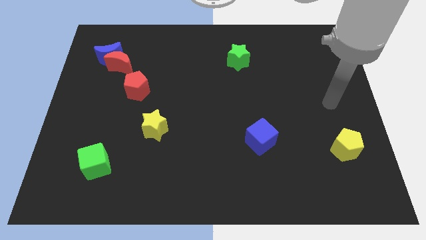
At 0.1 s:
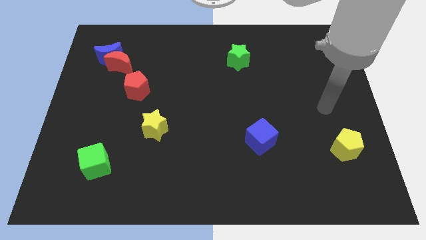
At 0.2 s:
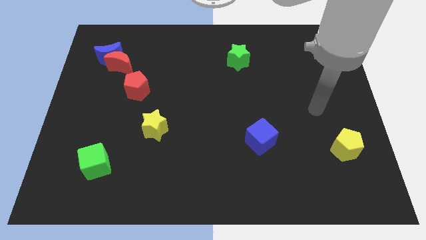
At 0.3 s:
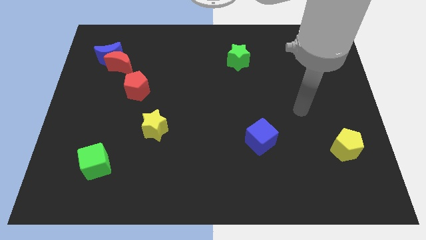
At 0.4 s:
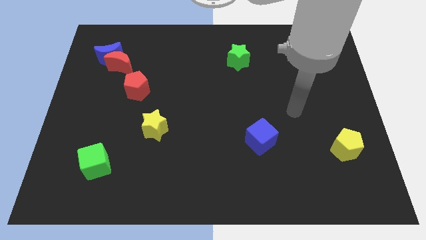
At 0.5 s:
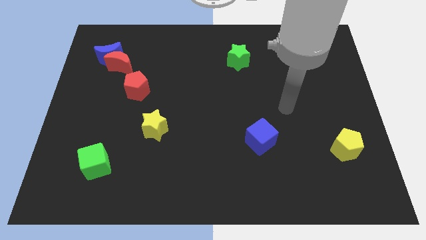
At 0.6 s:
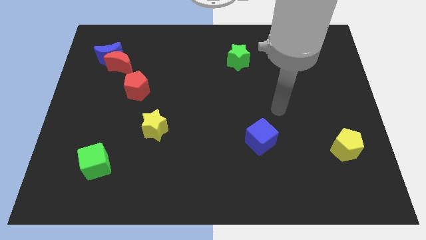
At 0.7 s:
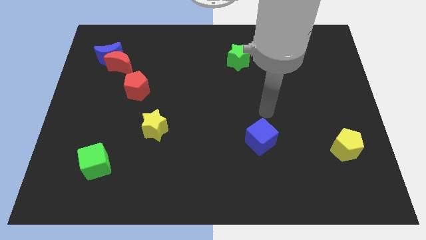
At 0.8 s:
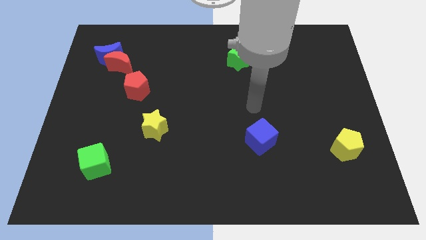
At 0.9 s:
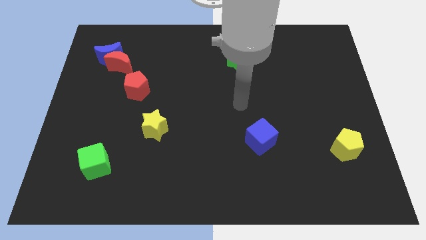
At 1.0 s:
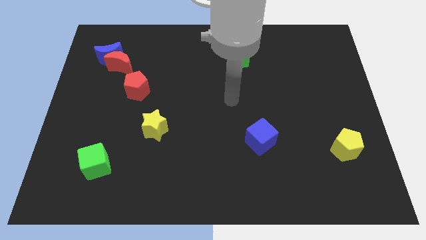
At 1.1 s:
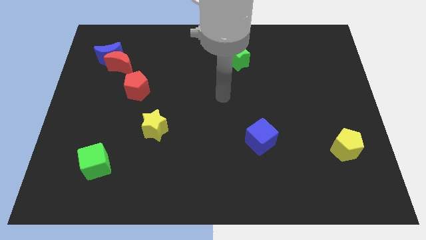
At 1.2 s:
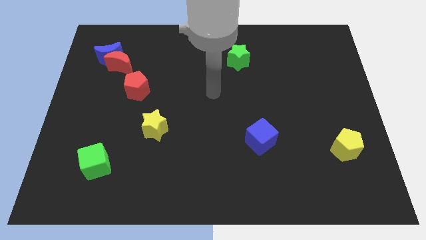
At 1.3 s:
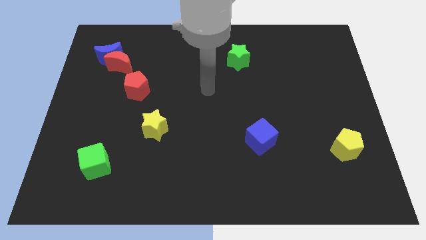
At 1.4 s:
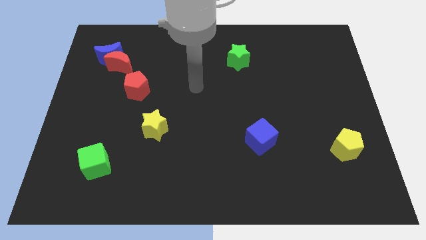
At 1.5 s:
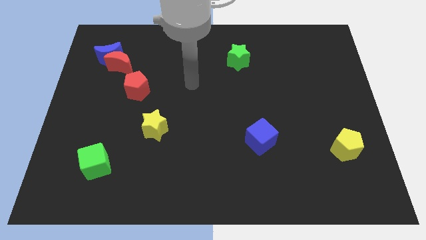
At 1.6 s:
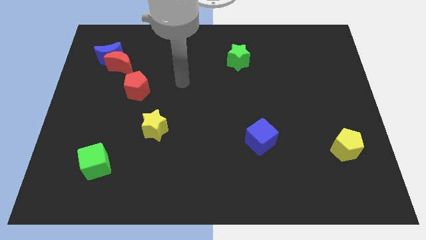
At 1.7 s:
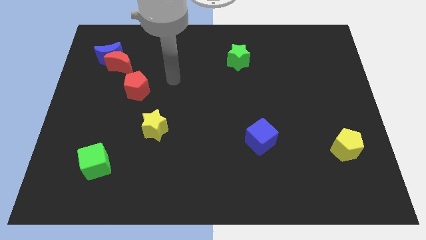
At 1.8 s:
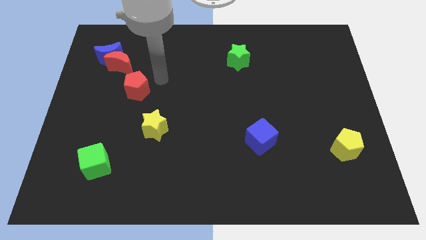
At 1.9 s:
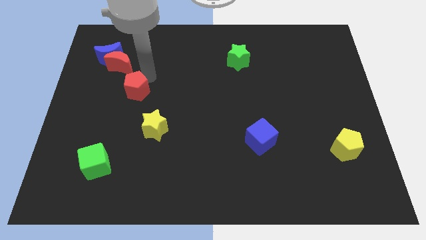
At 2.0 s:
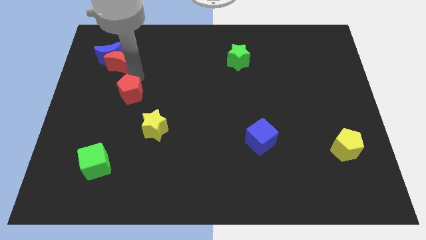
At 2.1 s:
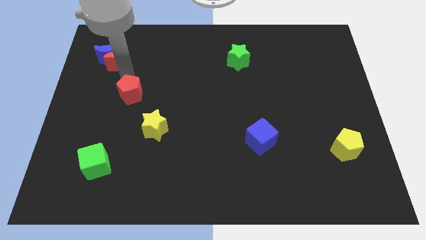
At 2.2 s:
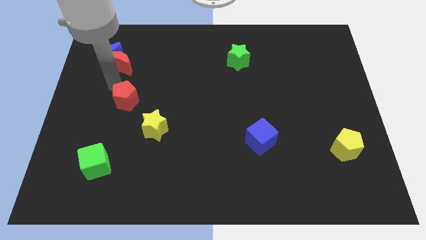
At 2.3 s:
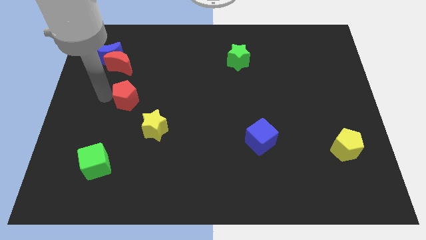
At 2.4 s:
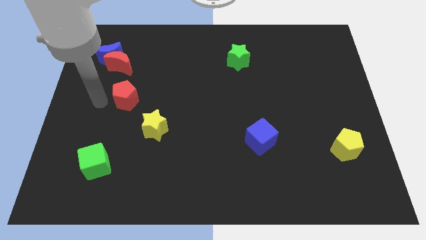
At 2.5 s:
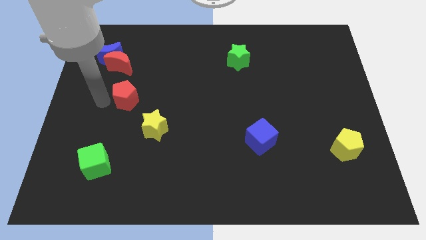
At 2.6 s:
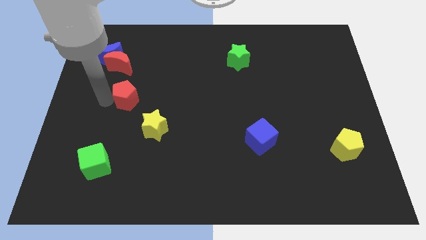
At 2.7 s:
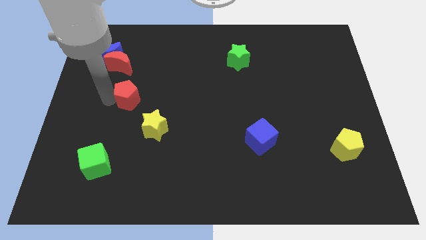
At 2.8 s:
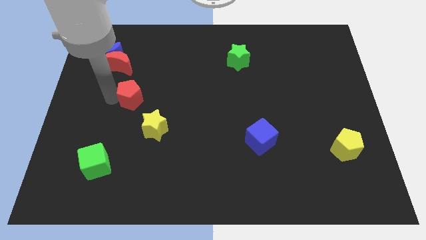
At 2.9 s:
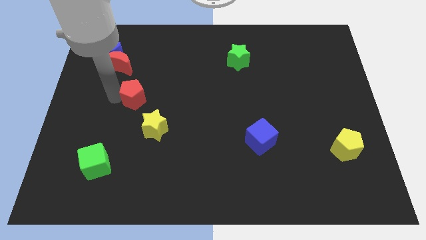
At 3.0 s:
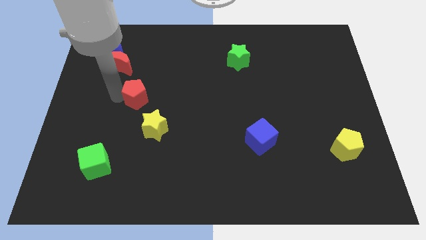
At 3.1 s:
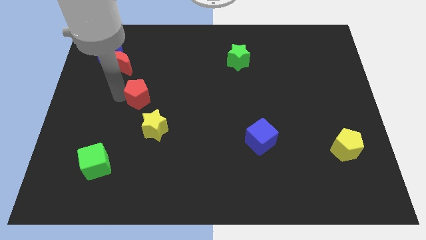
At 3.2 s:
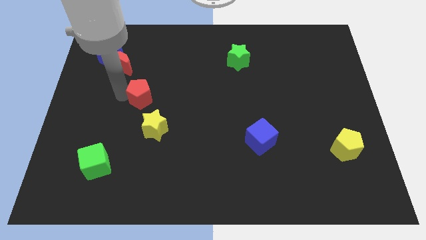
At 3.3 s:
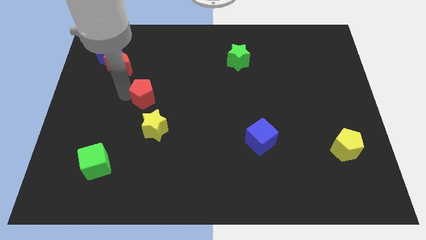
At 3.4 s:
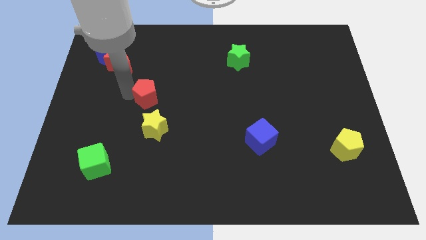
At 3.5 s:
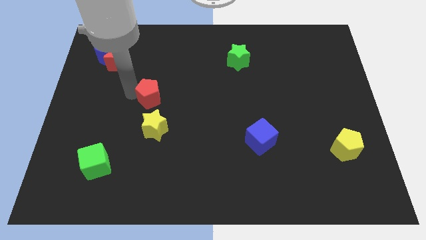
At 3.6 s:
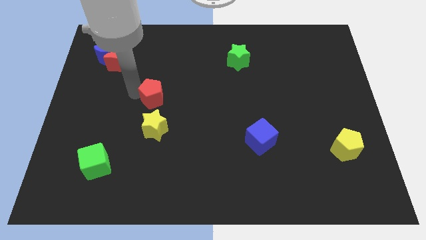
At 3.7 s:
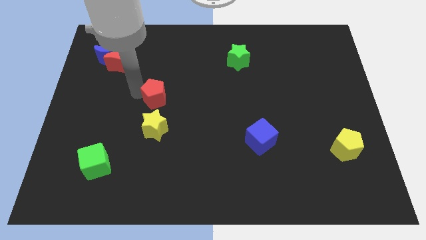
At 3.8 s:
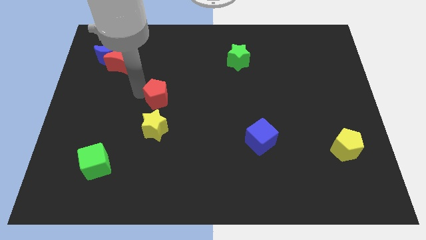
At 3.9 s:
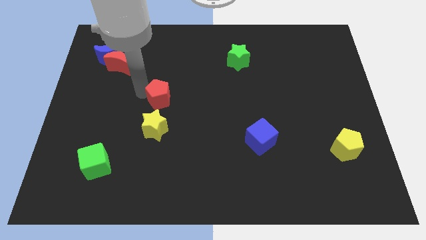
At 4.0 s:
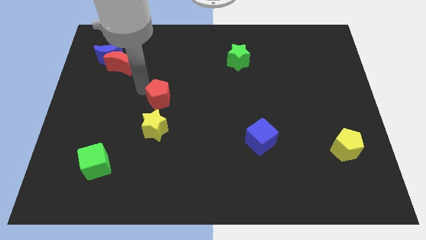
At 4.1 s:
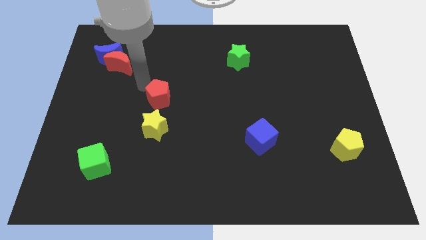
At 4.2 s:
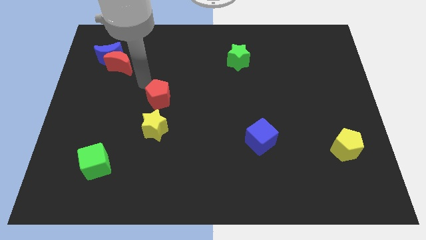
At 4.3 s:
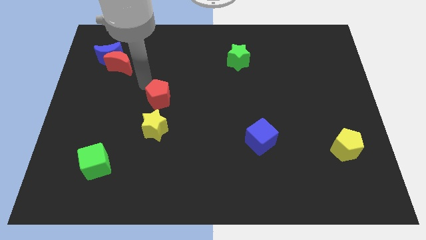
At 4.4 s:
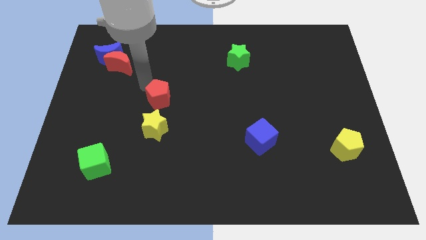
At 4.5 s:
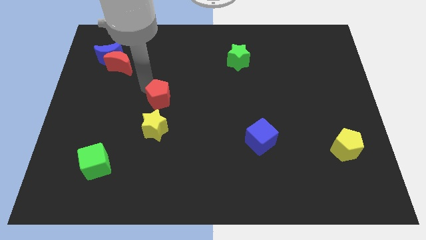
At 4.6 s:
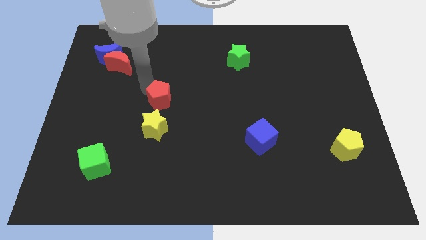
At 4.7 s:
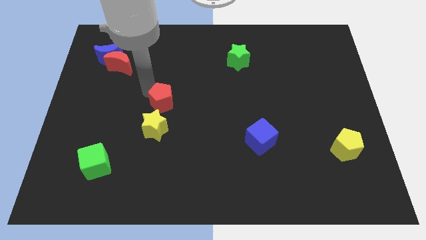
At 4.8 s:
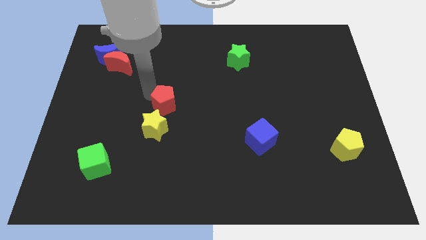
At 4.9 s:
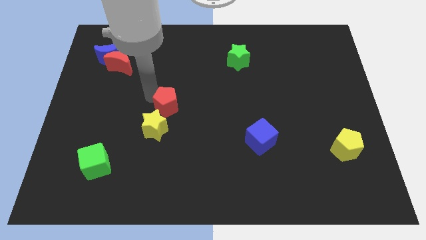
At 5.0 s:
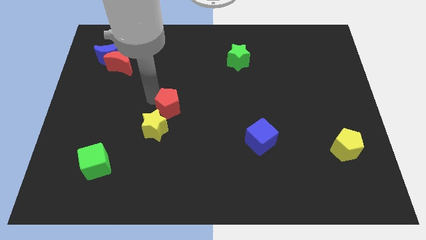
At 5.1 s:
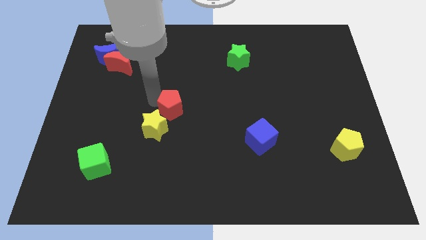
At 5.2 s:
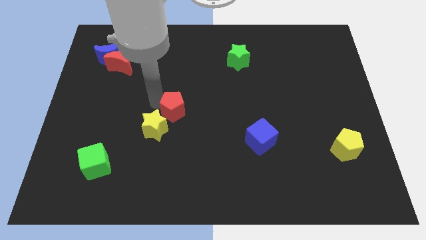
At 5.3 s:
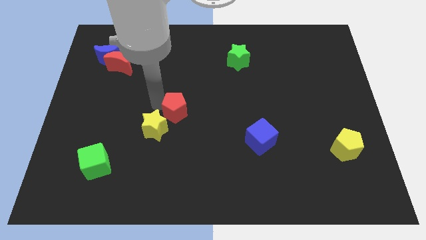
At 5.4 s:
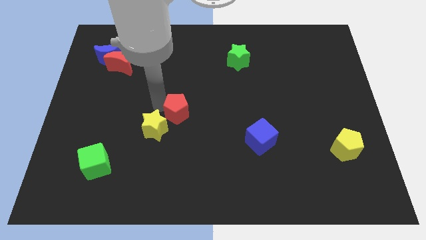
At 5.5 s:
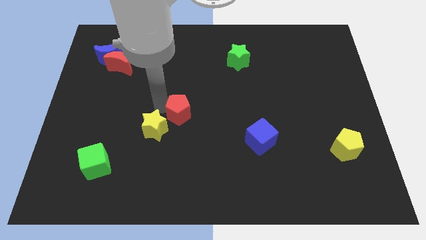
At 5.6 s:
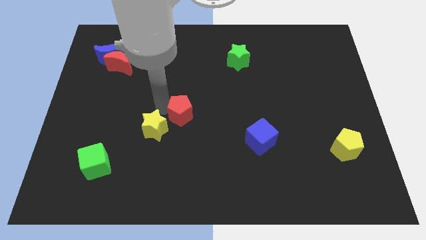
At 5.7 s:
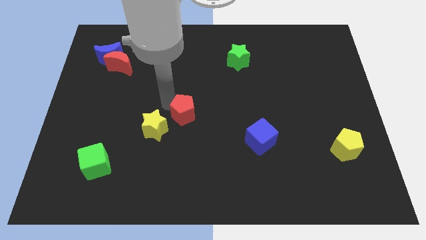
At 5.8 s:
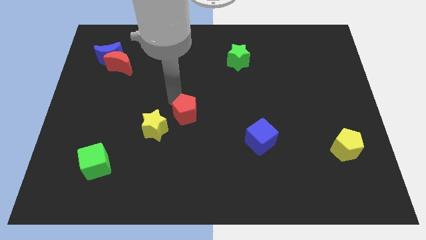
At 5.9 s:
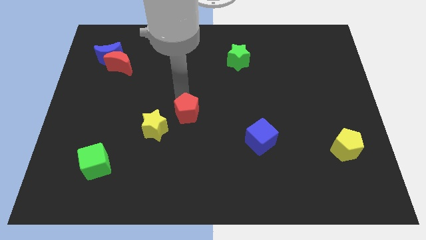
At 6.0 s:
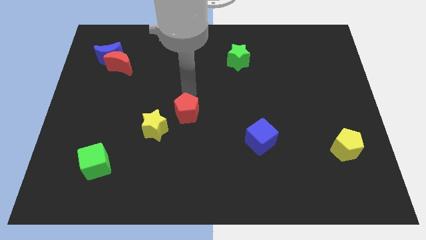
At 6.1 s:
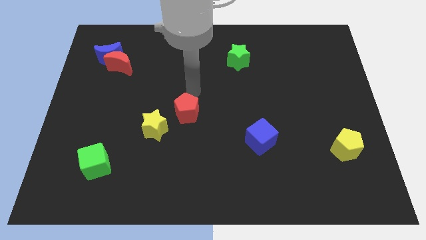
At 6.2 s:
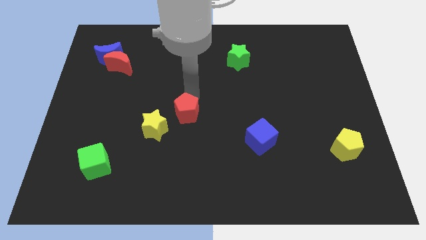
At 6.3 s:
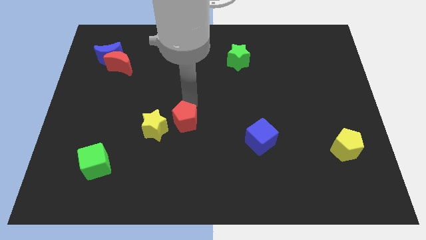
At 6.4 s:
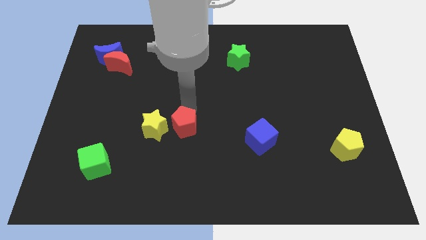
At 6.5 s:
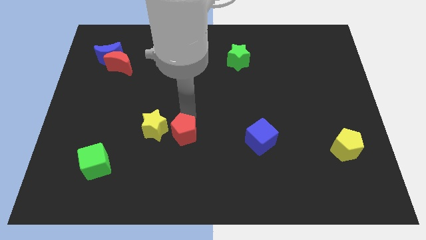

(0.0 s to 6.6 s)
push the red pentagon diagonally down and to the right of the yellow star
